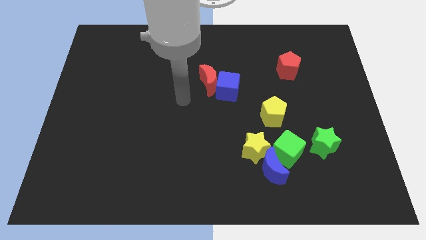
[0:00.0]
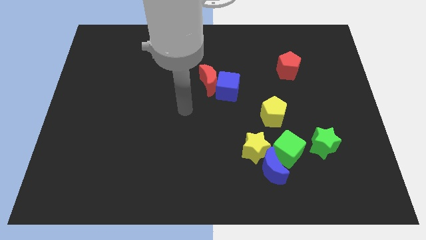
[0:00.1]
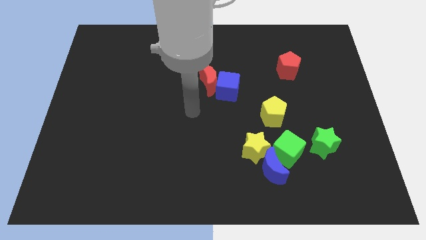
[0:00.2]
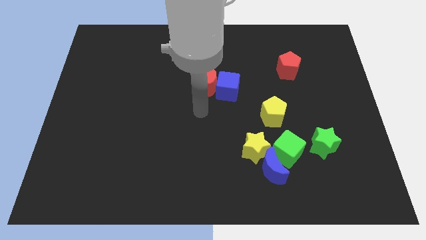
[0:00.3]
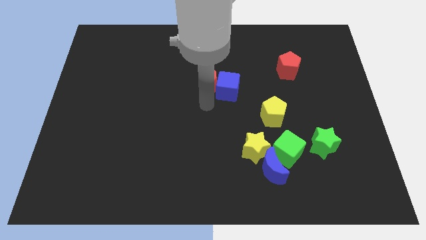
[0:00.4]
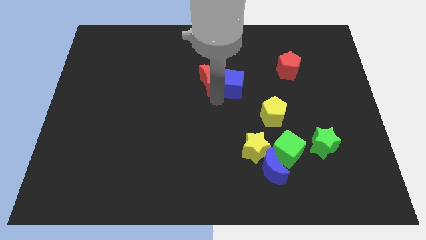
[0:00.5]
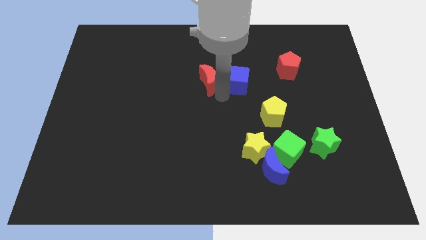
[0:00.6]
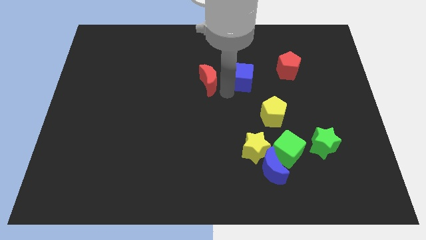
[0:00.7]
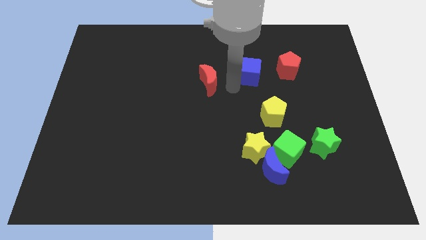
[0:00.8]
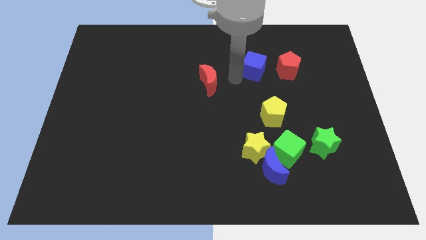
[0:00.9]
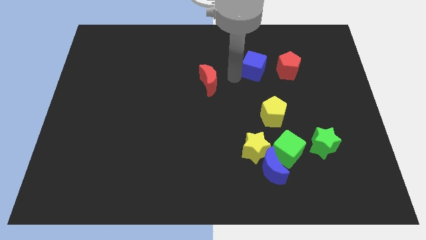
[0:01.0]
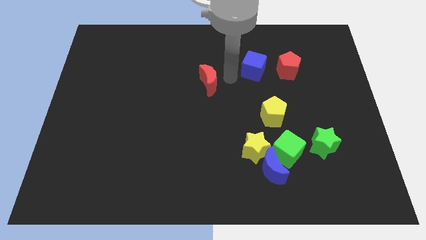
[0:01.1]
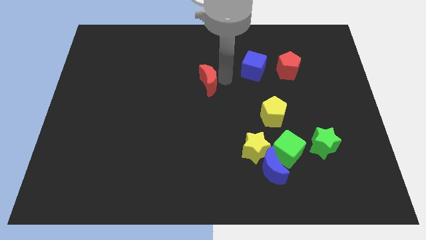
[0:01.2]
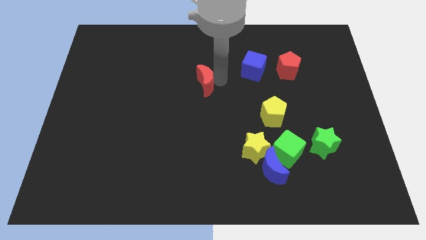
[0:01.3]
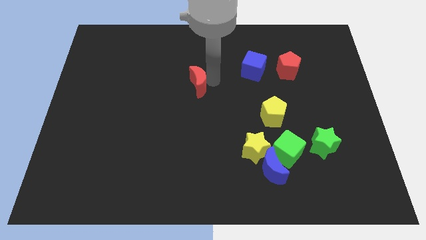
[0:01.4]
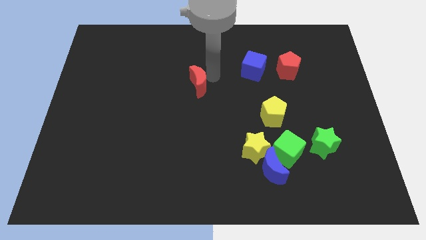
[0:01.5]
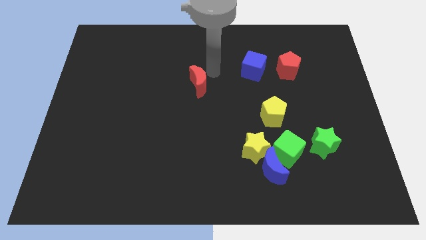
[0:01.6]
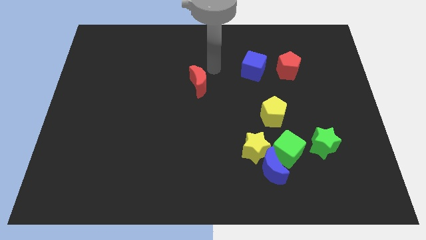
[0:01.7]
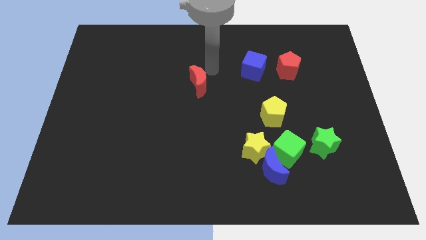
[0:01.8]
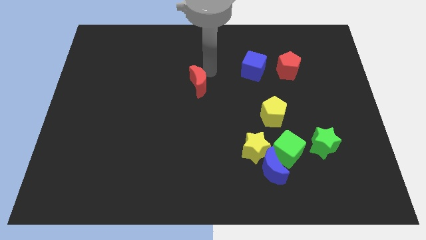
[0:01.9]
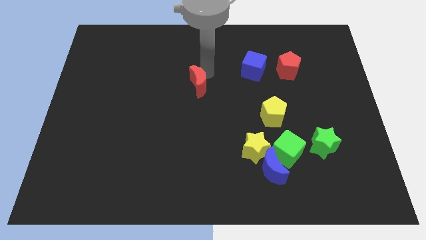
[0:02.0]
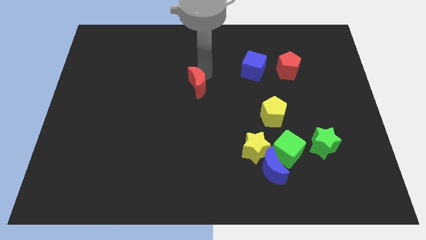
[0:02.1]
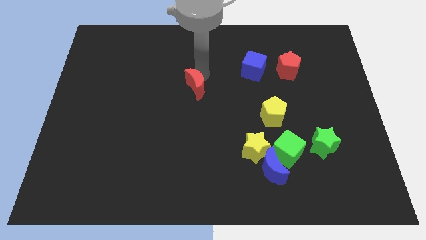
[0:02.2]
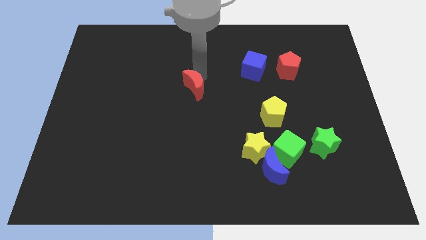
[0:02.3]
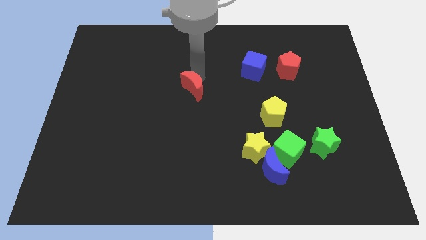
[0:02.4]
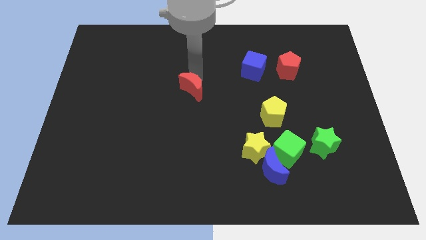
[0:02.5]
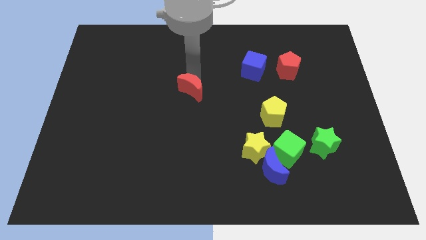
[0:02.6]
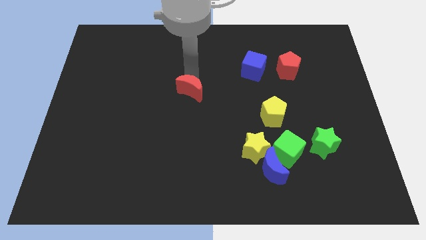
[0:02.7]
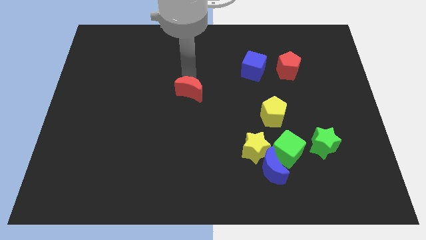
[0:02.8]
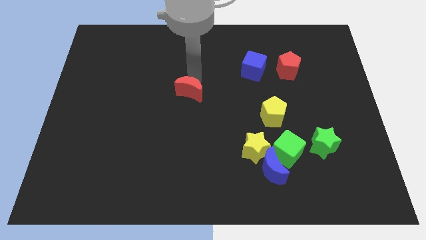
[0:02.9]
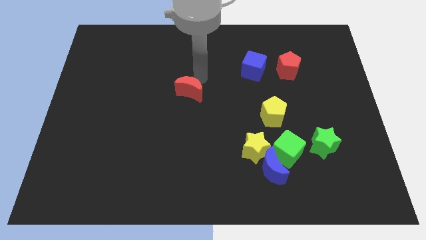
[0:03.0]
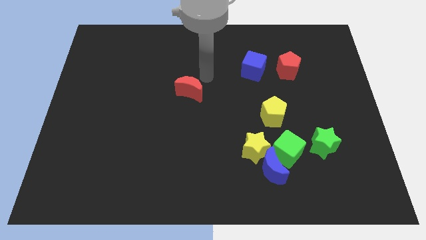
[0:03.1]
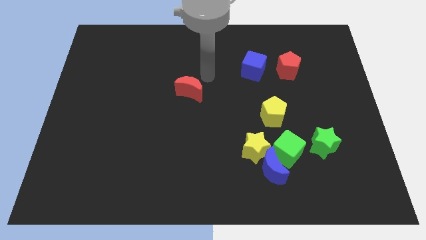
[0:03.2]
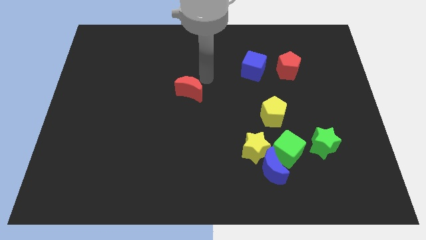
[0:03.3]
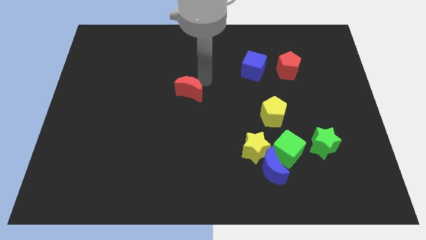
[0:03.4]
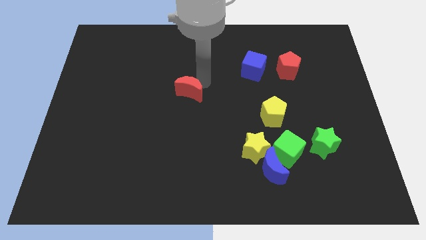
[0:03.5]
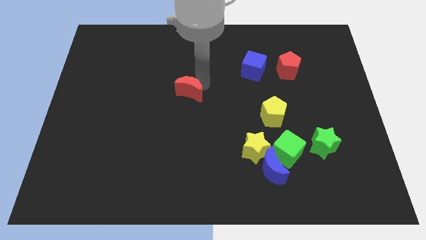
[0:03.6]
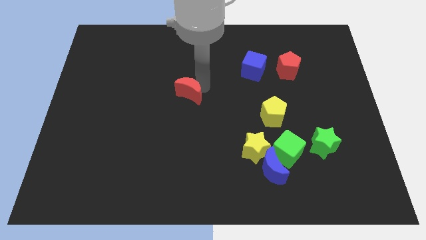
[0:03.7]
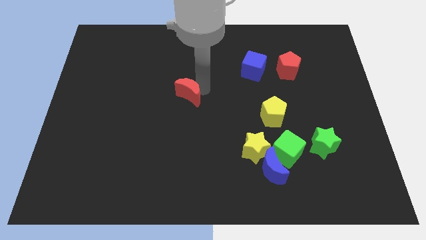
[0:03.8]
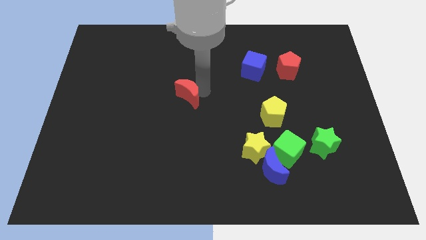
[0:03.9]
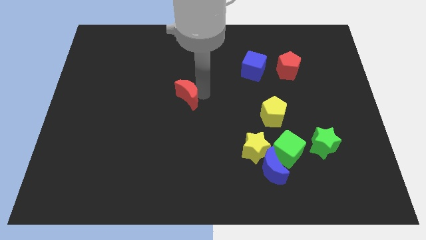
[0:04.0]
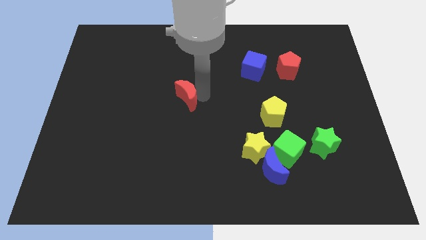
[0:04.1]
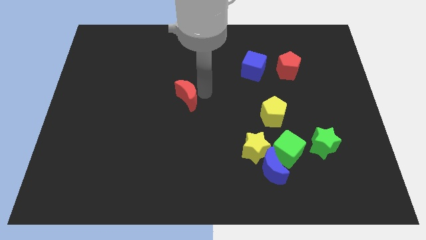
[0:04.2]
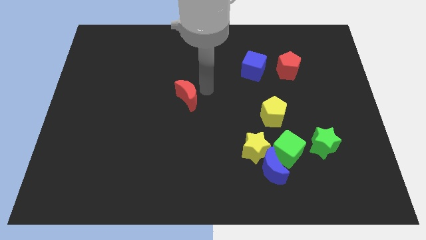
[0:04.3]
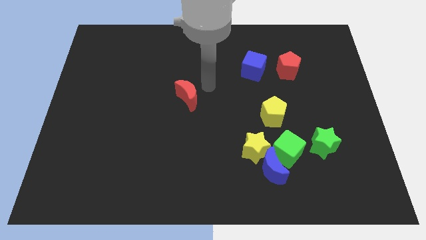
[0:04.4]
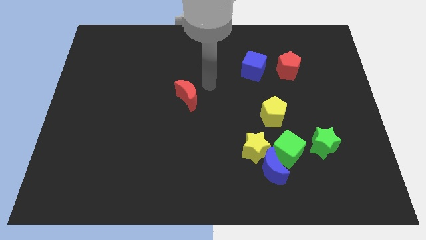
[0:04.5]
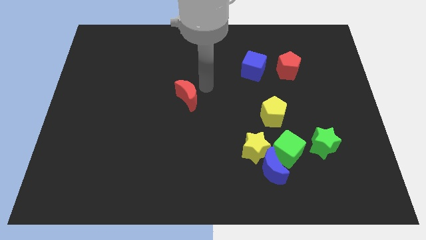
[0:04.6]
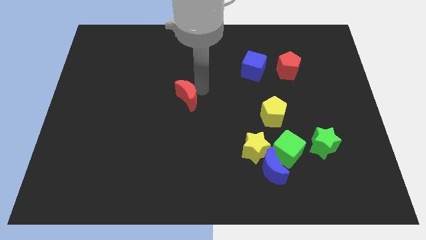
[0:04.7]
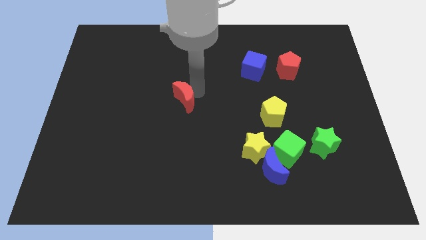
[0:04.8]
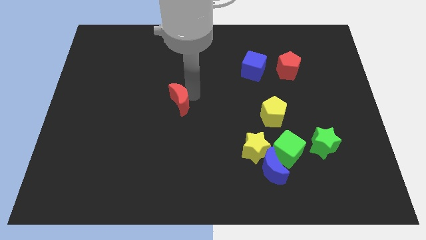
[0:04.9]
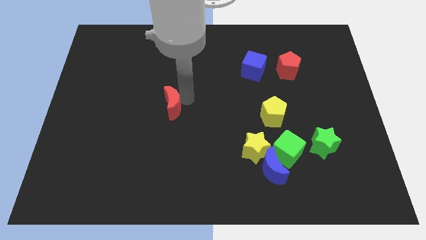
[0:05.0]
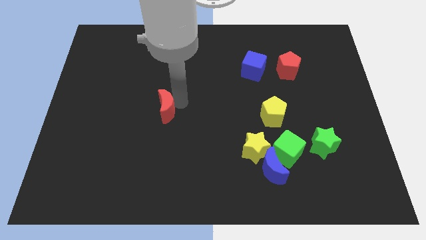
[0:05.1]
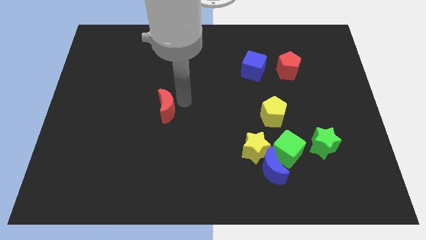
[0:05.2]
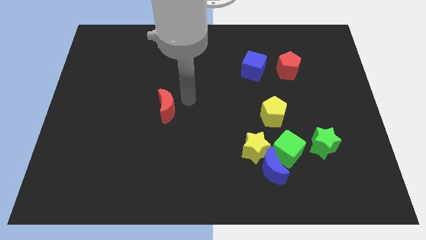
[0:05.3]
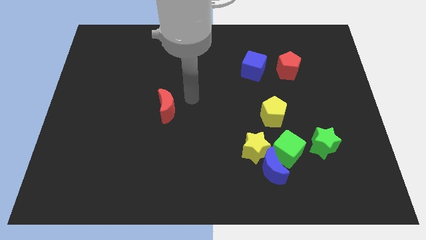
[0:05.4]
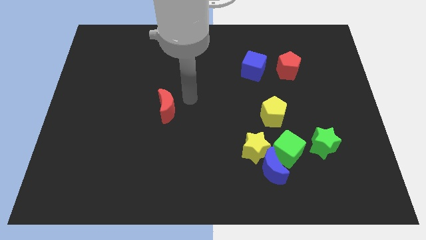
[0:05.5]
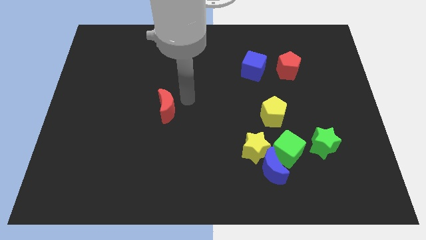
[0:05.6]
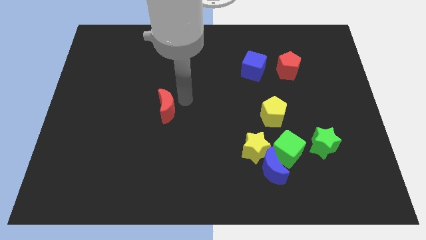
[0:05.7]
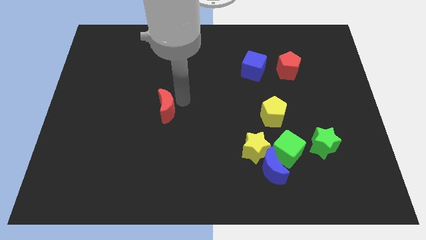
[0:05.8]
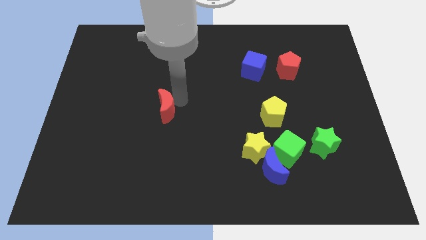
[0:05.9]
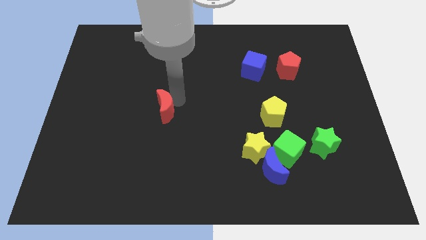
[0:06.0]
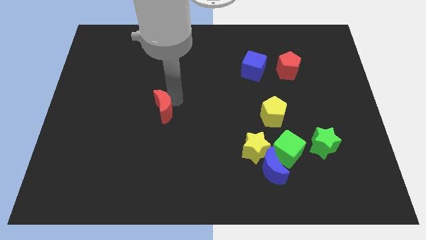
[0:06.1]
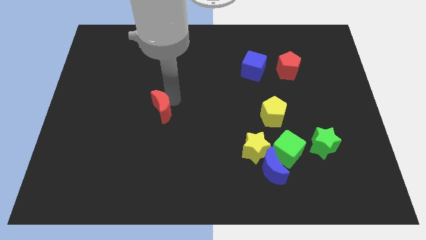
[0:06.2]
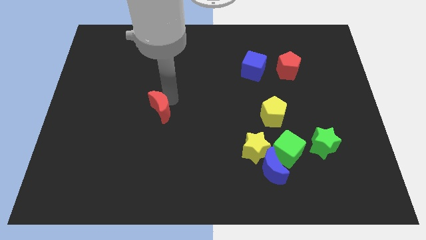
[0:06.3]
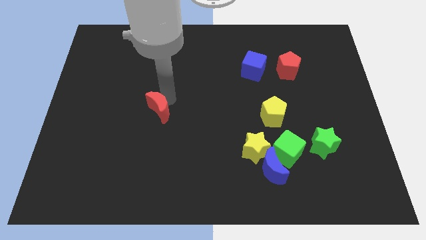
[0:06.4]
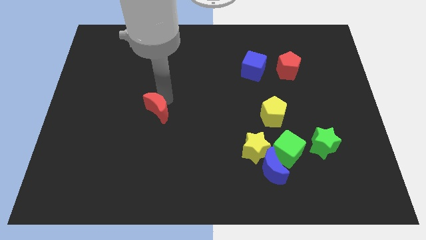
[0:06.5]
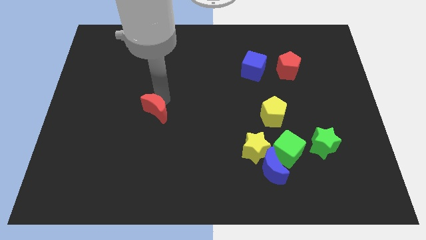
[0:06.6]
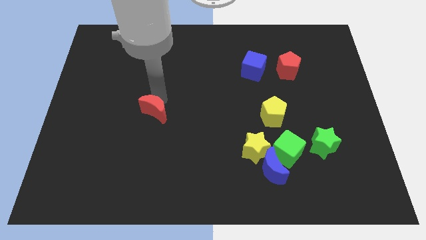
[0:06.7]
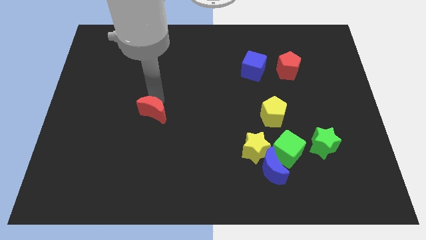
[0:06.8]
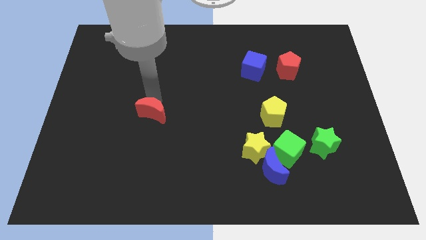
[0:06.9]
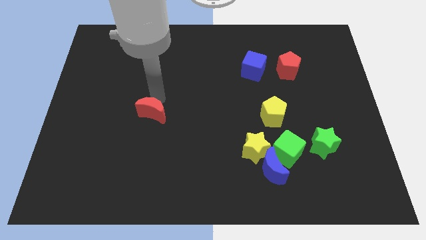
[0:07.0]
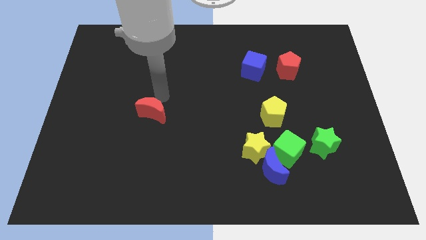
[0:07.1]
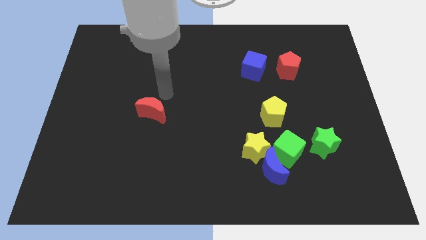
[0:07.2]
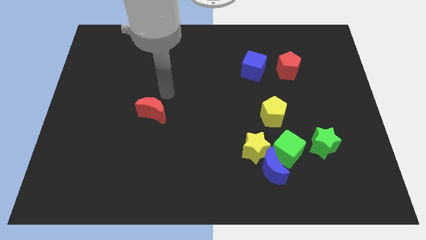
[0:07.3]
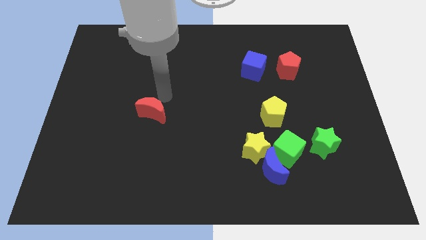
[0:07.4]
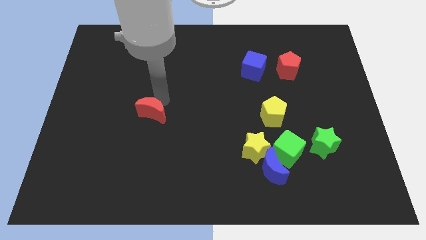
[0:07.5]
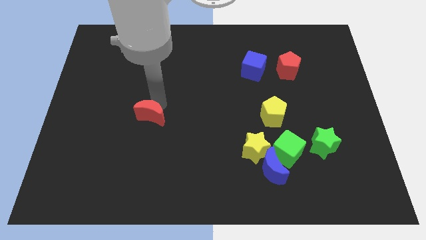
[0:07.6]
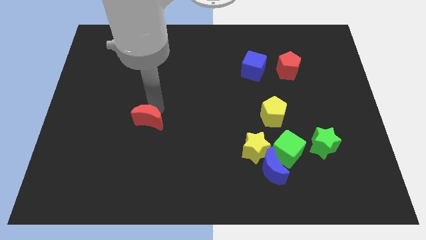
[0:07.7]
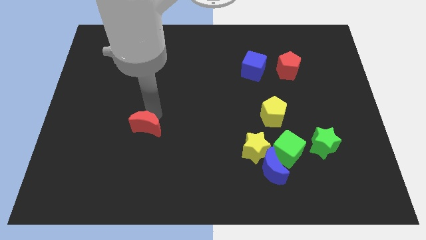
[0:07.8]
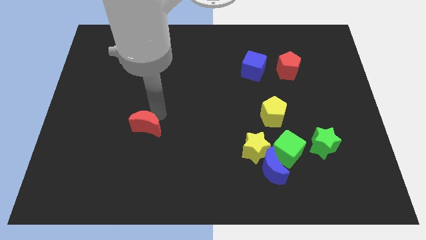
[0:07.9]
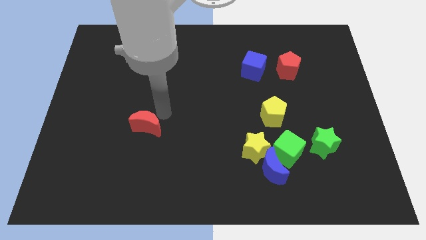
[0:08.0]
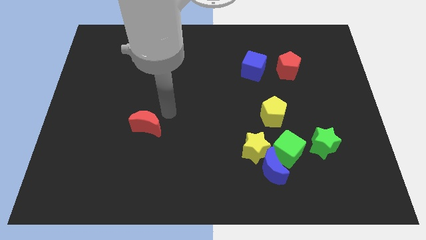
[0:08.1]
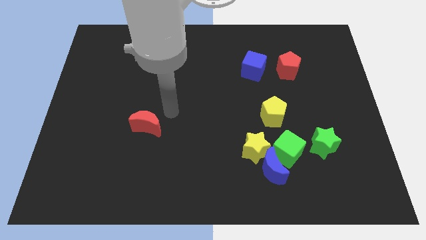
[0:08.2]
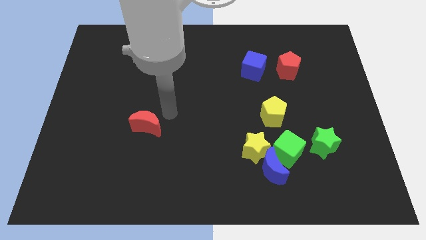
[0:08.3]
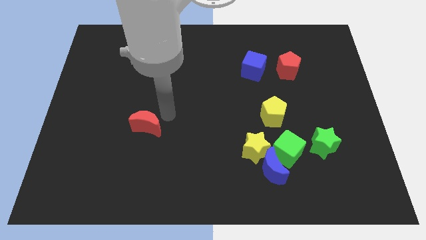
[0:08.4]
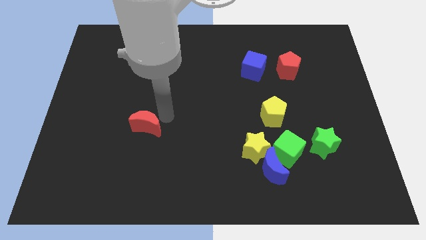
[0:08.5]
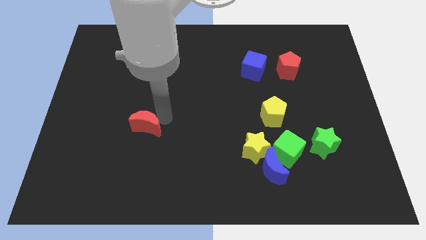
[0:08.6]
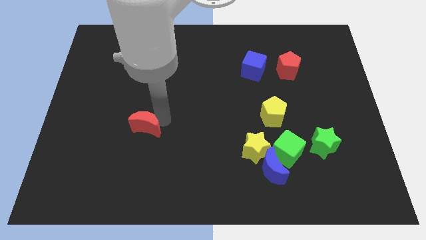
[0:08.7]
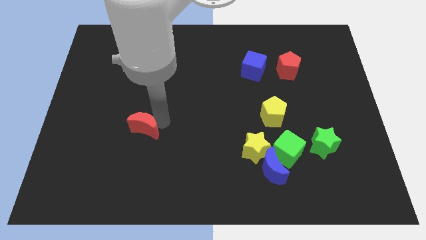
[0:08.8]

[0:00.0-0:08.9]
push the red moon downwards and left
